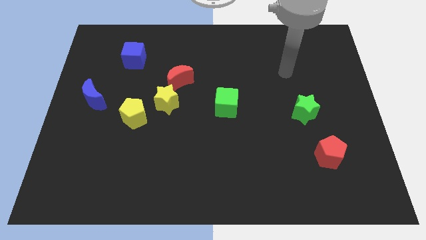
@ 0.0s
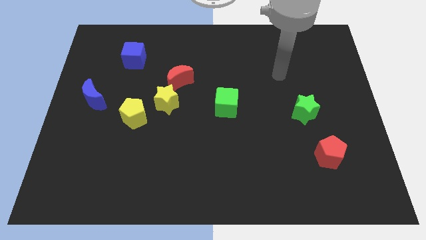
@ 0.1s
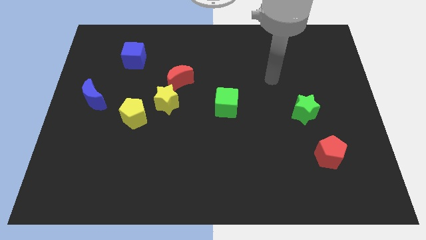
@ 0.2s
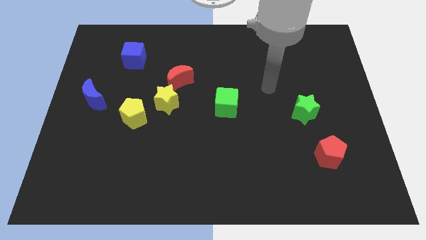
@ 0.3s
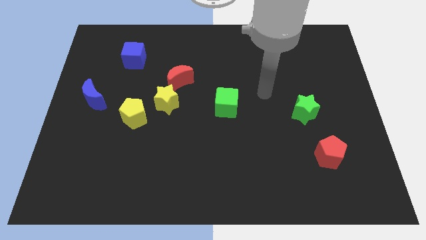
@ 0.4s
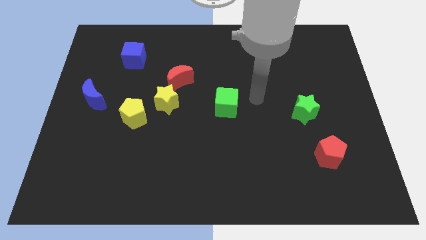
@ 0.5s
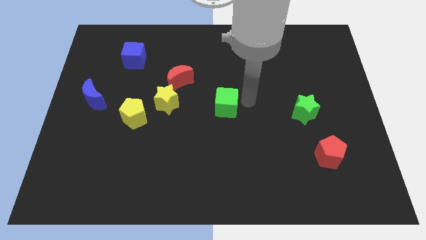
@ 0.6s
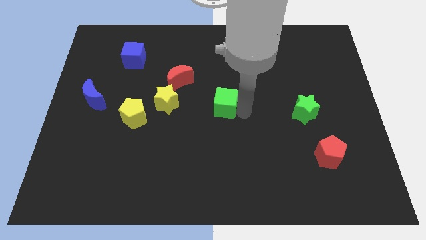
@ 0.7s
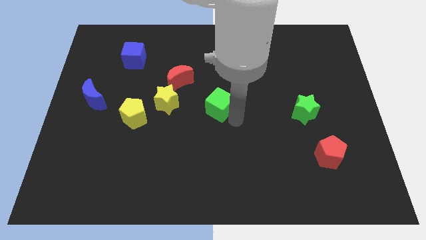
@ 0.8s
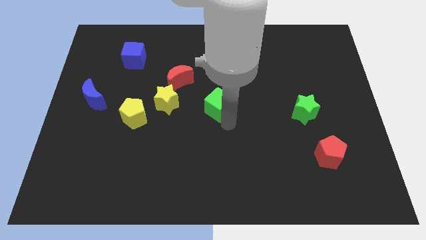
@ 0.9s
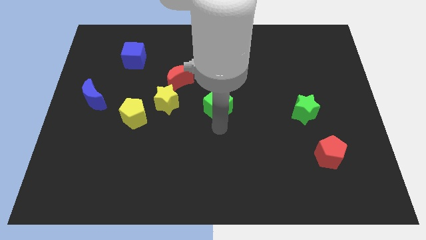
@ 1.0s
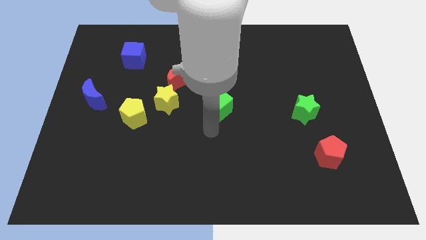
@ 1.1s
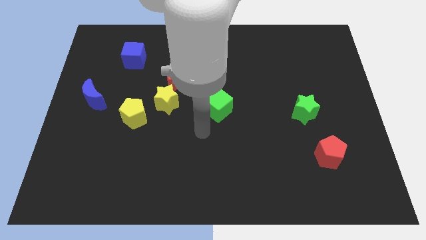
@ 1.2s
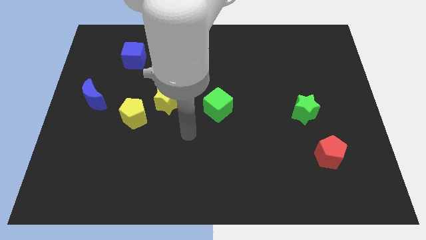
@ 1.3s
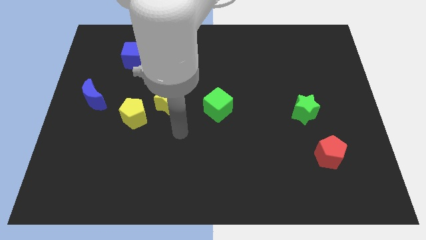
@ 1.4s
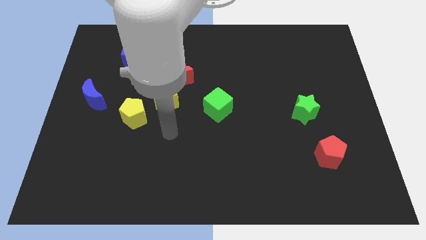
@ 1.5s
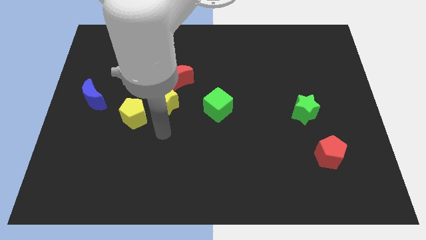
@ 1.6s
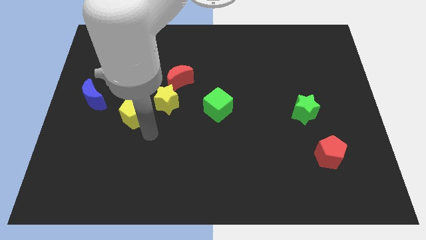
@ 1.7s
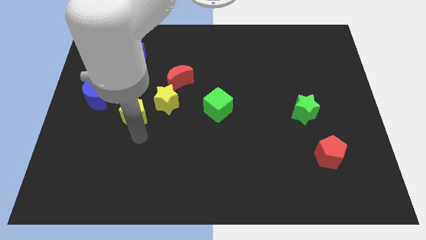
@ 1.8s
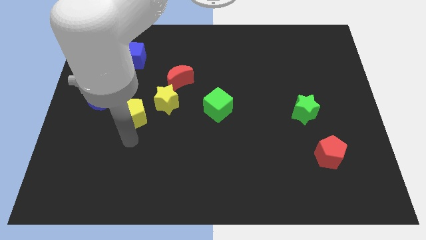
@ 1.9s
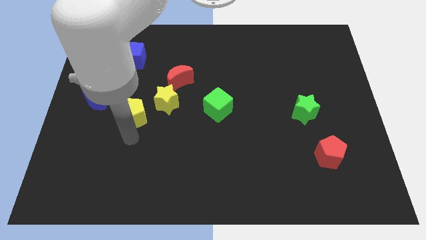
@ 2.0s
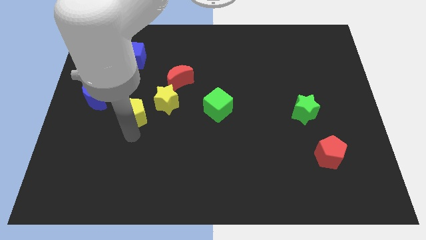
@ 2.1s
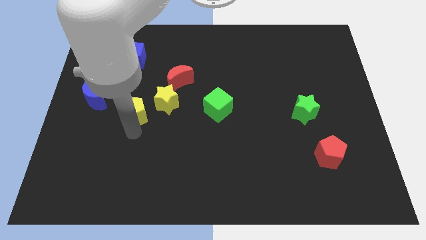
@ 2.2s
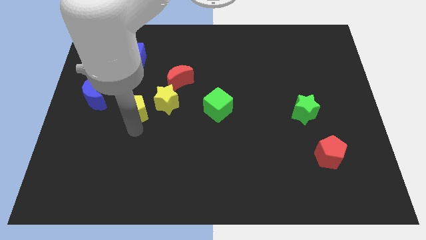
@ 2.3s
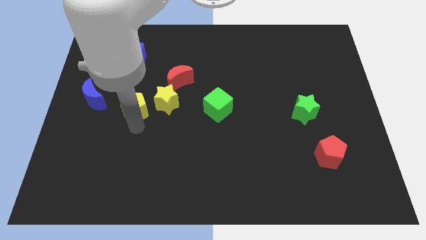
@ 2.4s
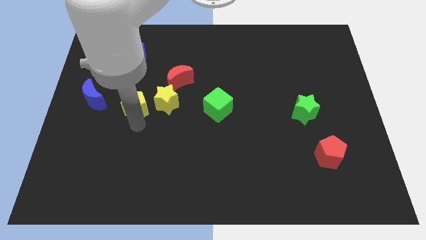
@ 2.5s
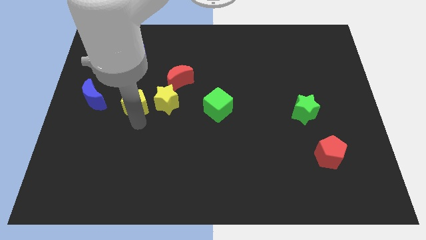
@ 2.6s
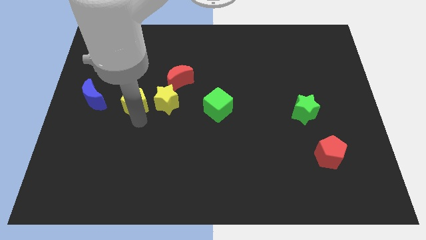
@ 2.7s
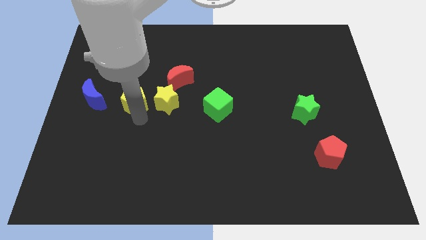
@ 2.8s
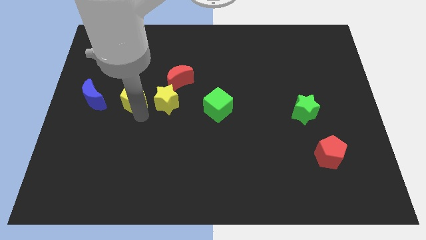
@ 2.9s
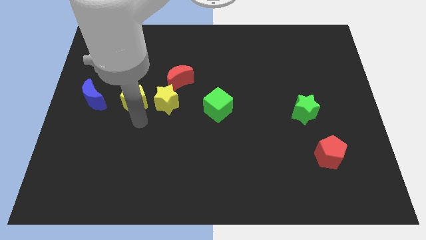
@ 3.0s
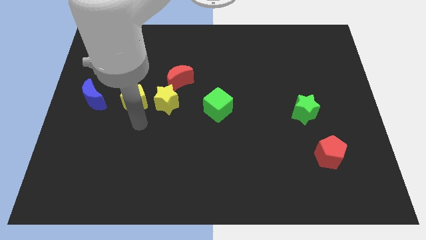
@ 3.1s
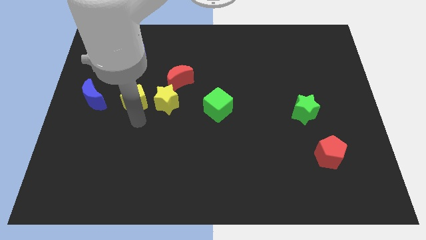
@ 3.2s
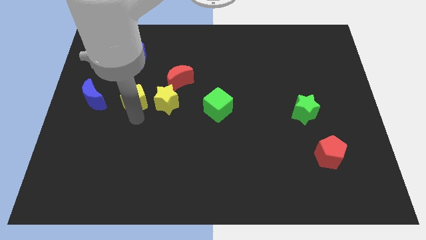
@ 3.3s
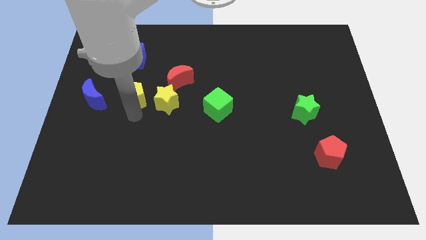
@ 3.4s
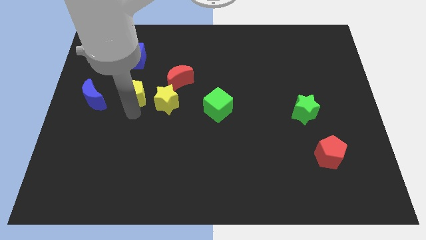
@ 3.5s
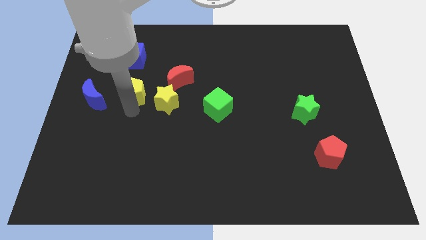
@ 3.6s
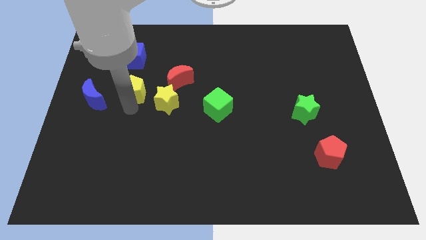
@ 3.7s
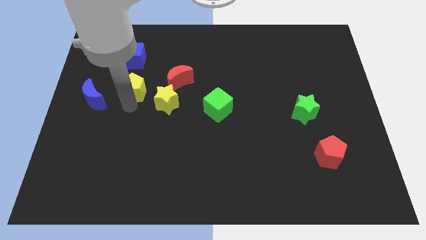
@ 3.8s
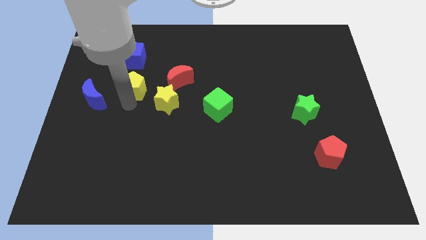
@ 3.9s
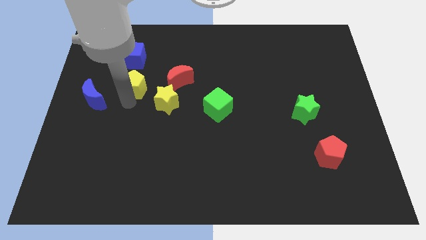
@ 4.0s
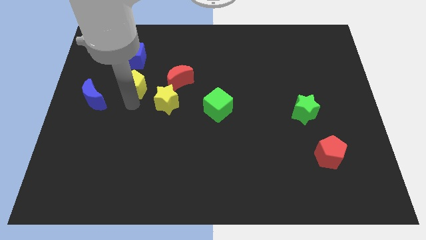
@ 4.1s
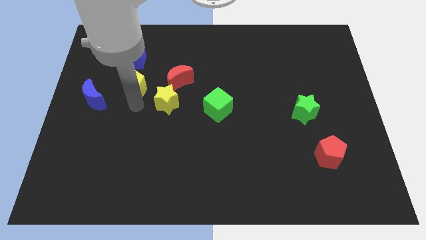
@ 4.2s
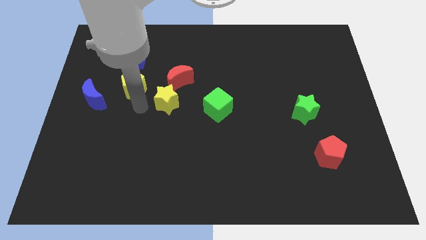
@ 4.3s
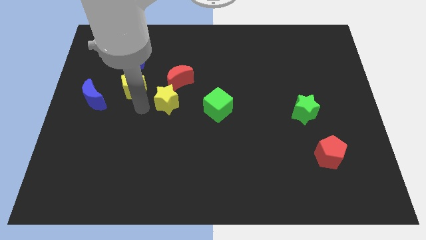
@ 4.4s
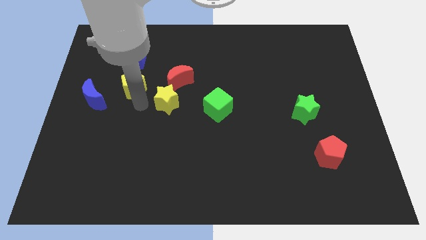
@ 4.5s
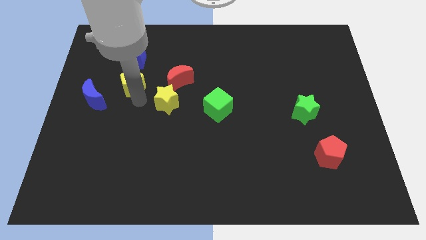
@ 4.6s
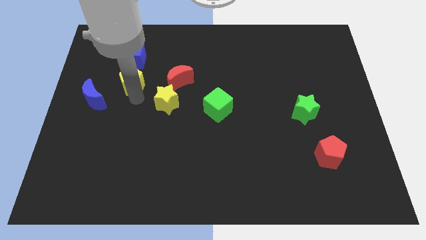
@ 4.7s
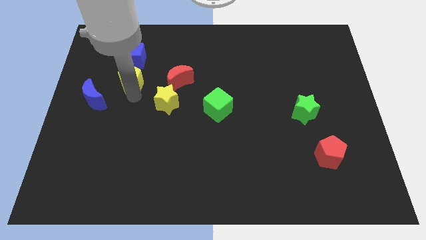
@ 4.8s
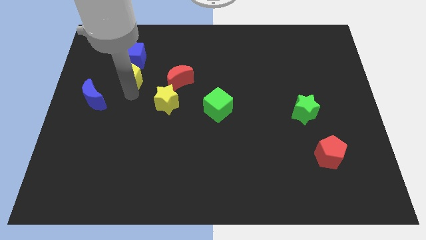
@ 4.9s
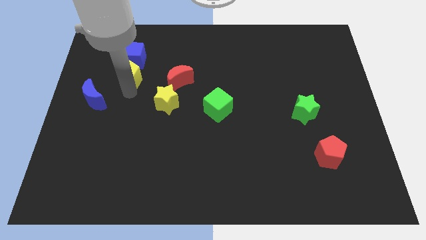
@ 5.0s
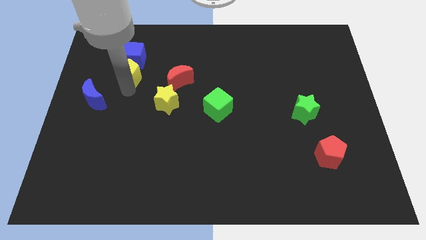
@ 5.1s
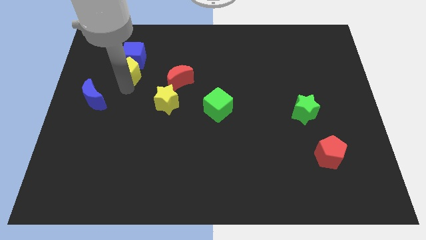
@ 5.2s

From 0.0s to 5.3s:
move the yellow pentagon to the blue cube

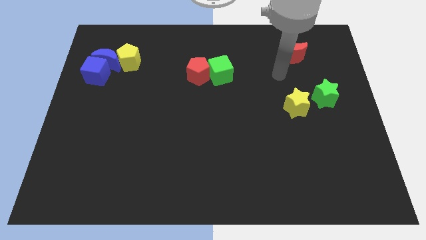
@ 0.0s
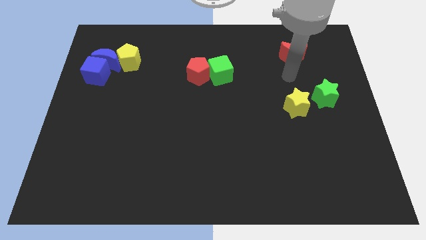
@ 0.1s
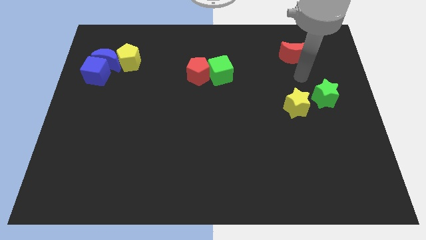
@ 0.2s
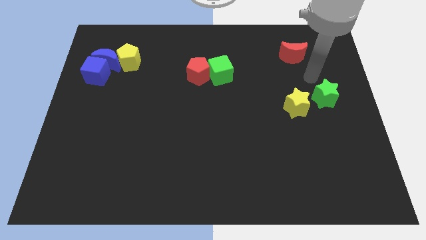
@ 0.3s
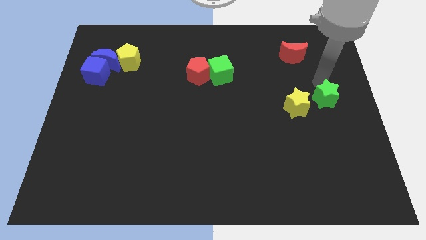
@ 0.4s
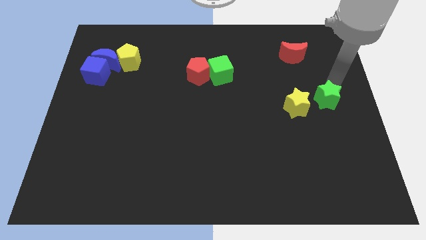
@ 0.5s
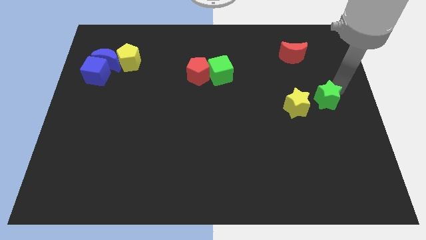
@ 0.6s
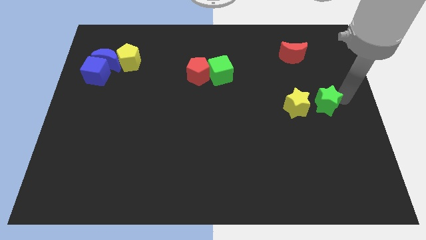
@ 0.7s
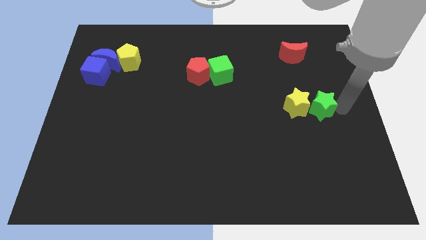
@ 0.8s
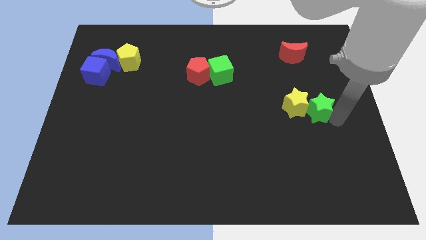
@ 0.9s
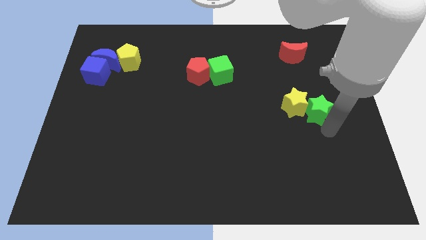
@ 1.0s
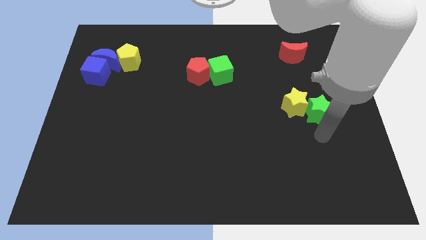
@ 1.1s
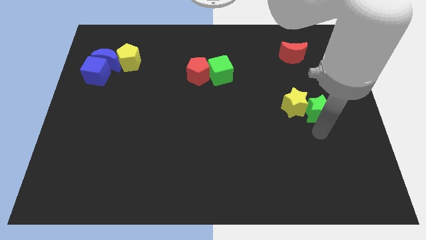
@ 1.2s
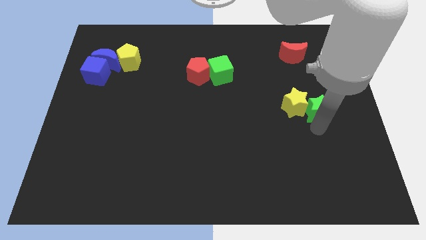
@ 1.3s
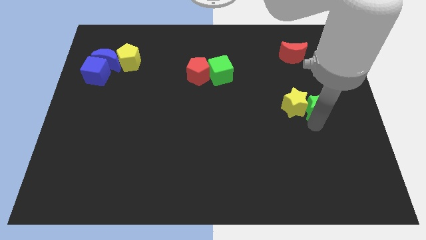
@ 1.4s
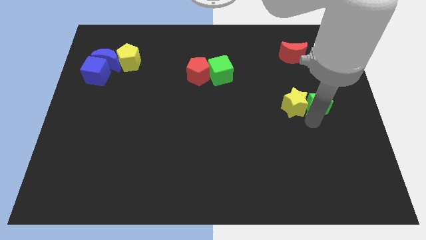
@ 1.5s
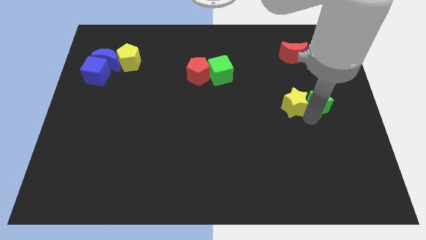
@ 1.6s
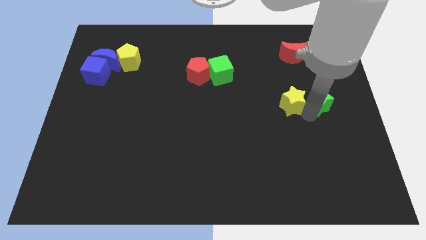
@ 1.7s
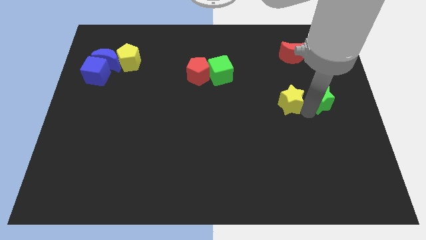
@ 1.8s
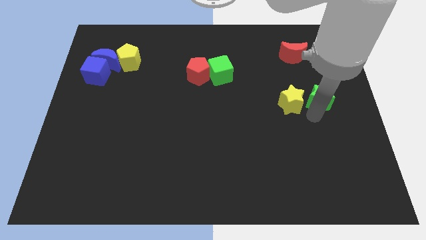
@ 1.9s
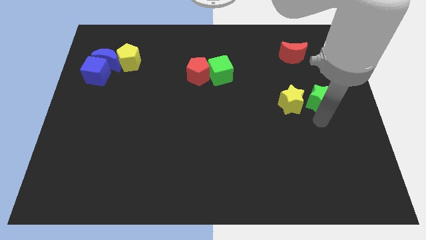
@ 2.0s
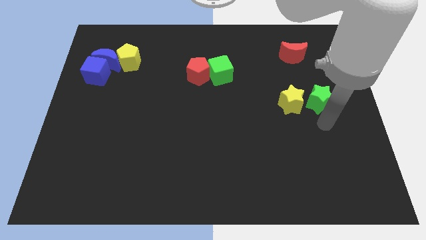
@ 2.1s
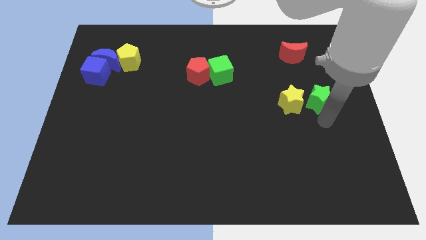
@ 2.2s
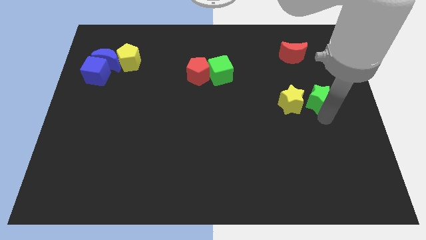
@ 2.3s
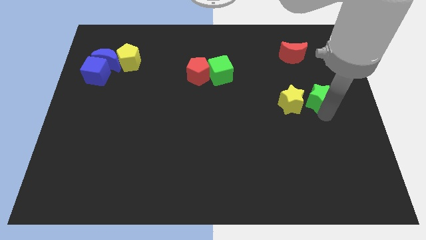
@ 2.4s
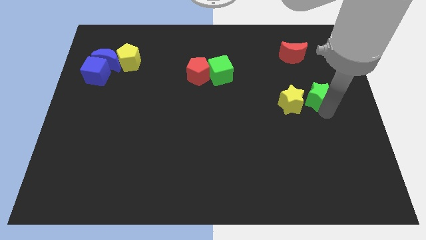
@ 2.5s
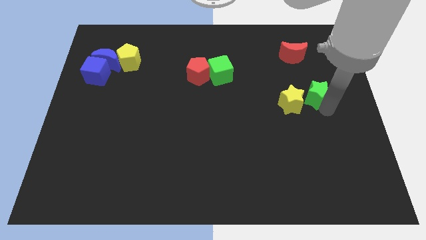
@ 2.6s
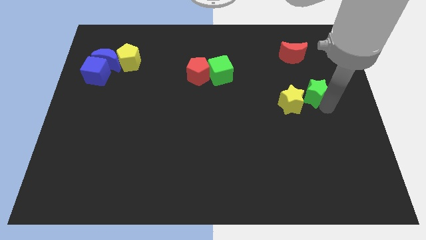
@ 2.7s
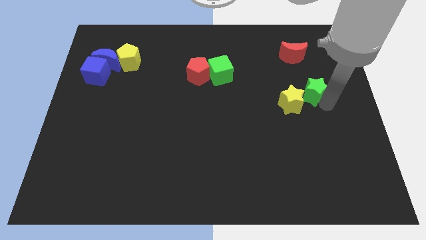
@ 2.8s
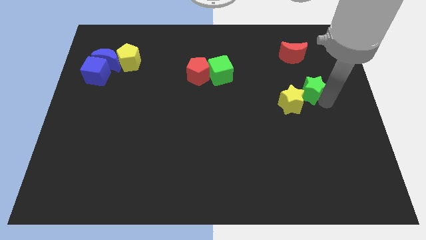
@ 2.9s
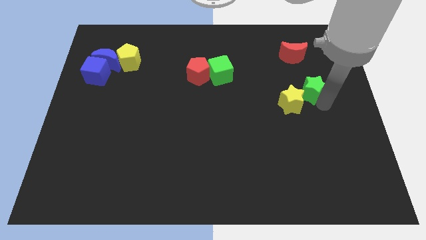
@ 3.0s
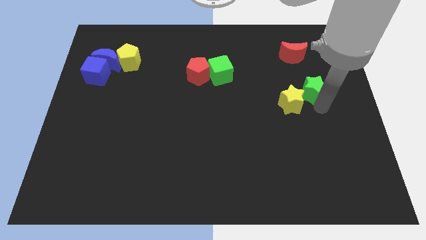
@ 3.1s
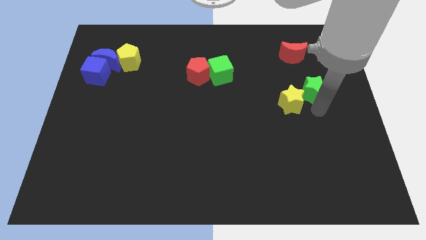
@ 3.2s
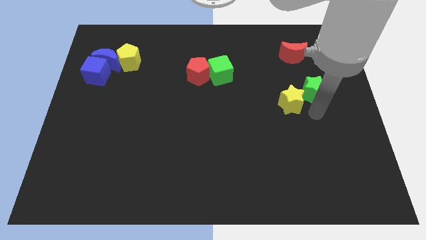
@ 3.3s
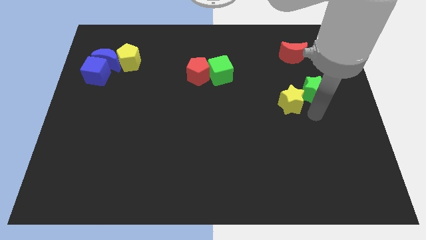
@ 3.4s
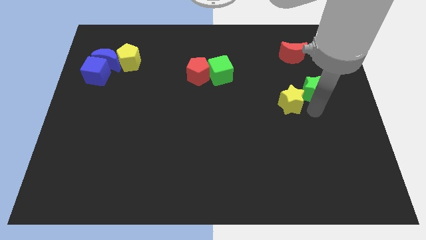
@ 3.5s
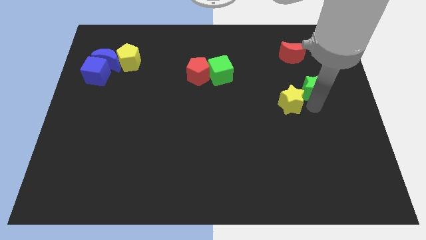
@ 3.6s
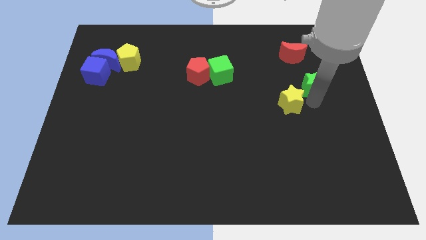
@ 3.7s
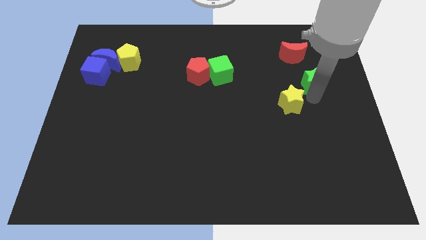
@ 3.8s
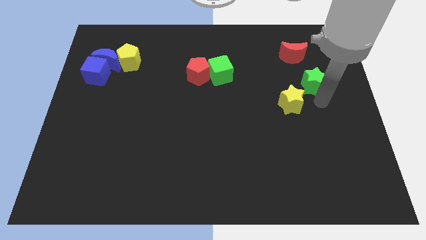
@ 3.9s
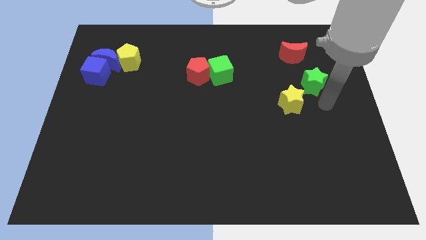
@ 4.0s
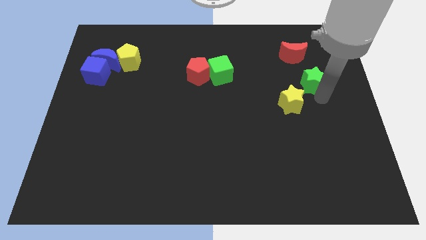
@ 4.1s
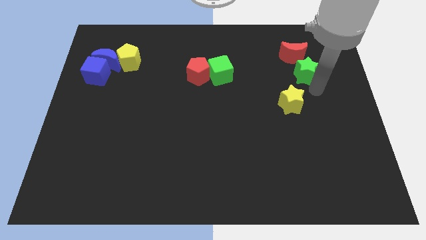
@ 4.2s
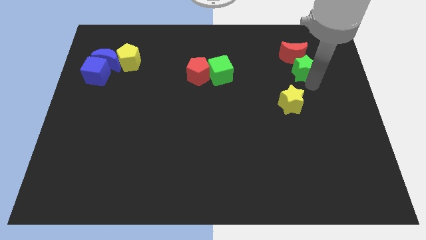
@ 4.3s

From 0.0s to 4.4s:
slide the green star close to the red moon
